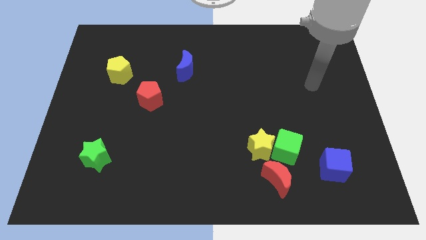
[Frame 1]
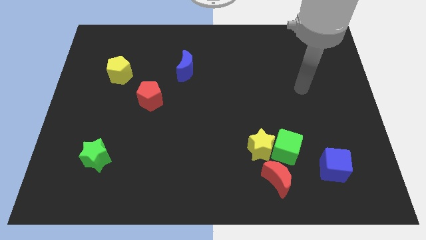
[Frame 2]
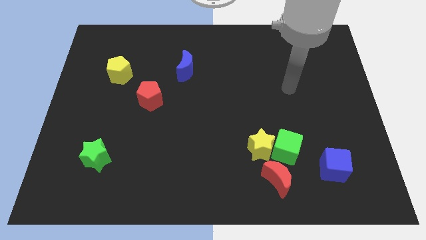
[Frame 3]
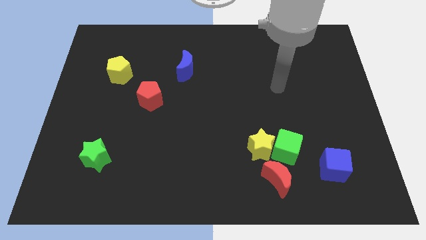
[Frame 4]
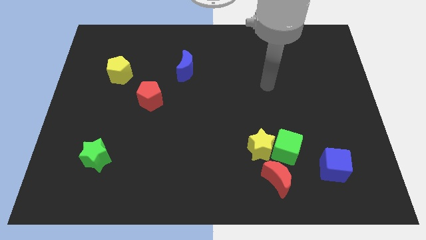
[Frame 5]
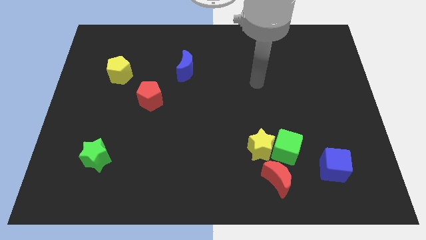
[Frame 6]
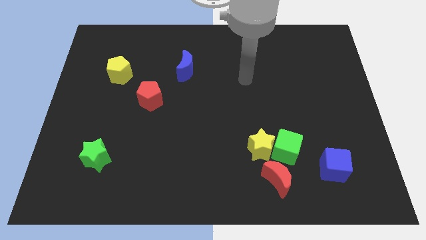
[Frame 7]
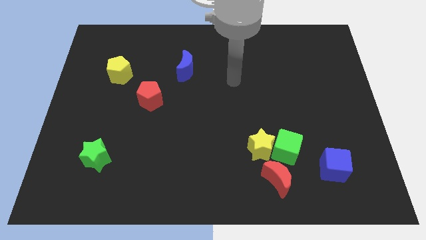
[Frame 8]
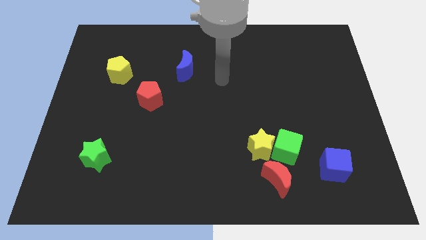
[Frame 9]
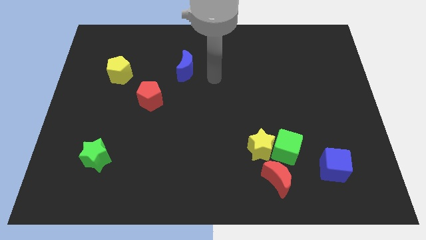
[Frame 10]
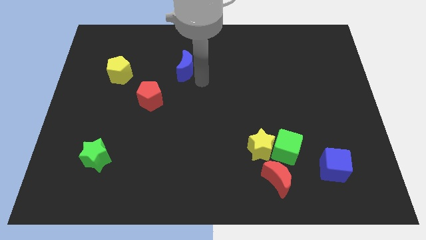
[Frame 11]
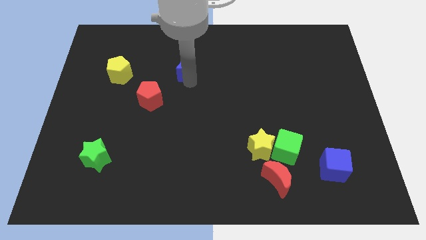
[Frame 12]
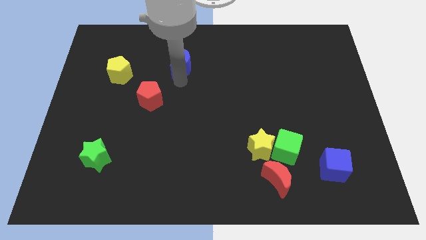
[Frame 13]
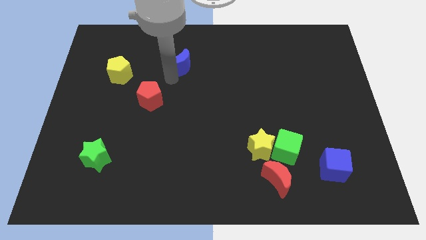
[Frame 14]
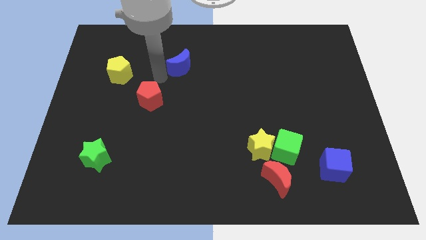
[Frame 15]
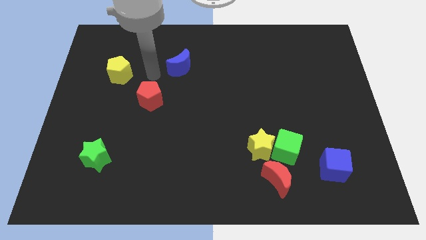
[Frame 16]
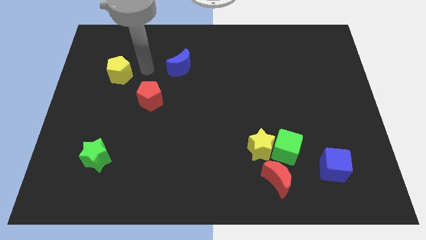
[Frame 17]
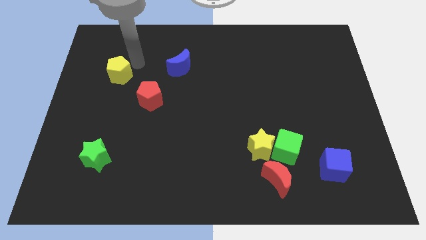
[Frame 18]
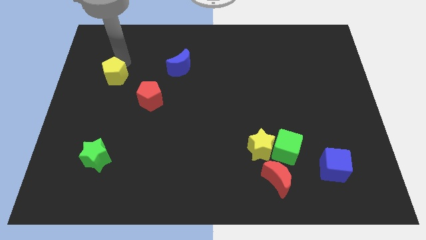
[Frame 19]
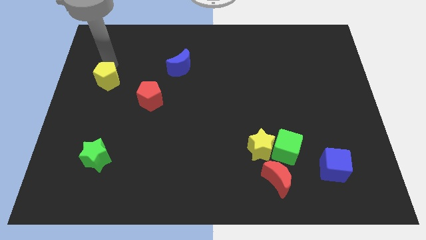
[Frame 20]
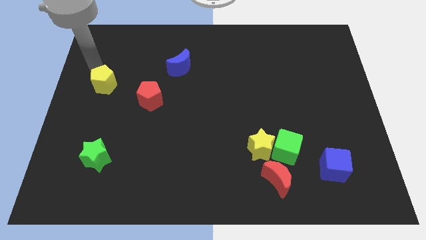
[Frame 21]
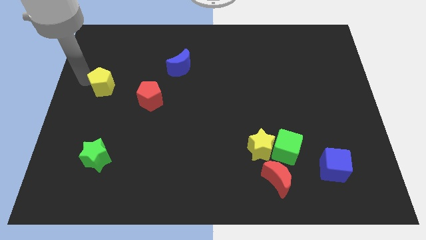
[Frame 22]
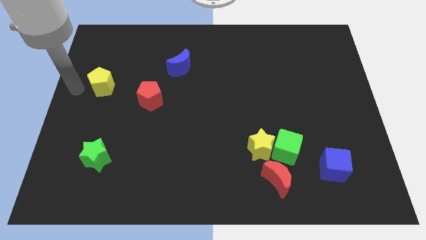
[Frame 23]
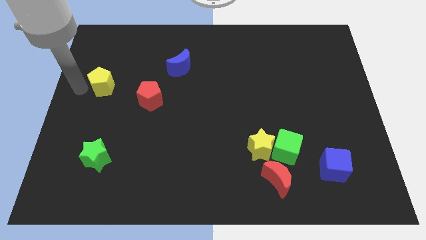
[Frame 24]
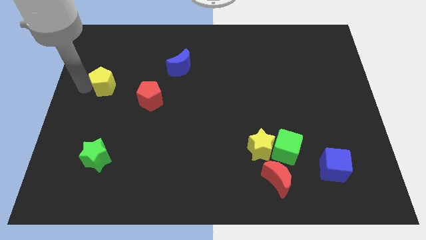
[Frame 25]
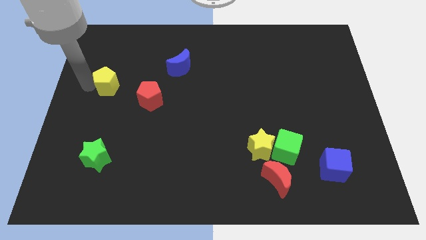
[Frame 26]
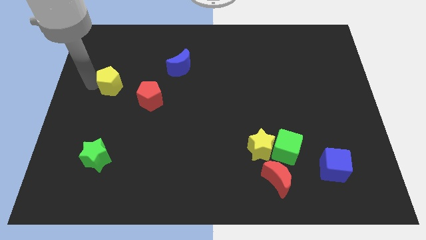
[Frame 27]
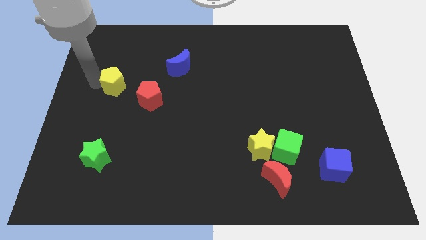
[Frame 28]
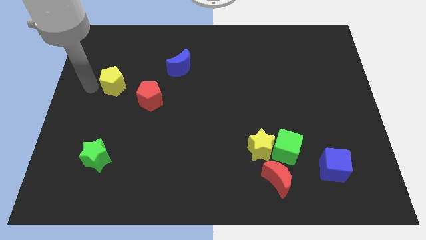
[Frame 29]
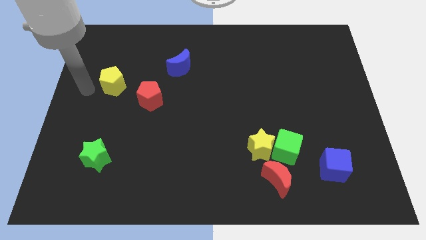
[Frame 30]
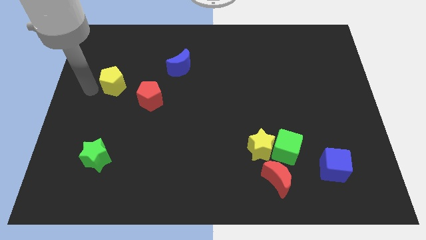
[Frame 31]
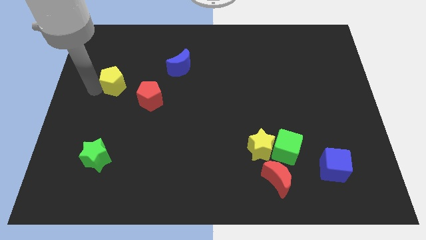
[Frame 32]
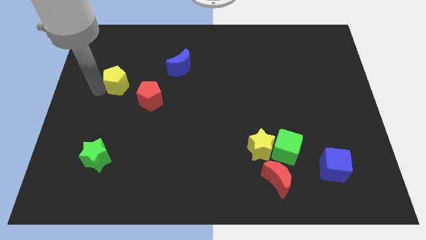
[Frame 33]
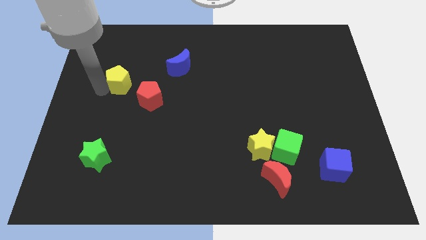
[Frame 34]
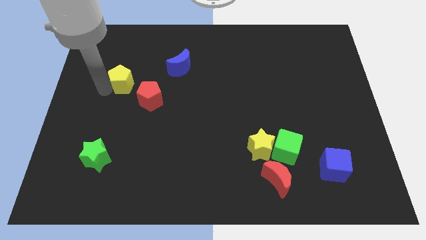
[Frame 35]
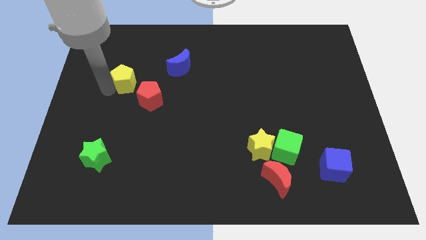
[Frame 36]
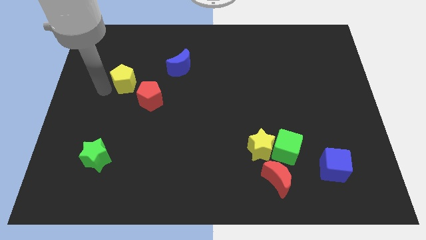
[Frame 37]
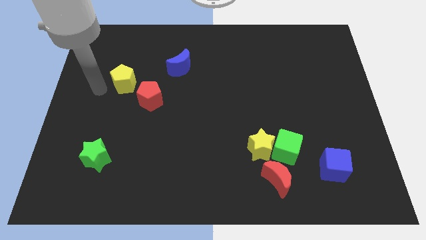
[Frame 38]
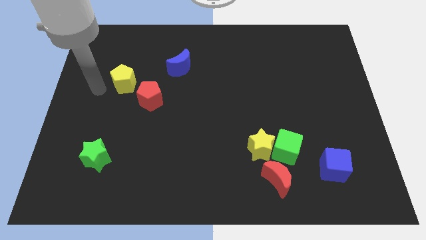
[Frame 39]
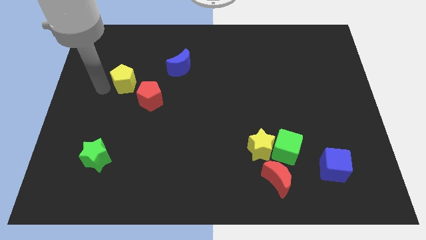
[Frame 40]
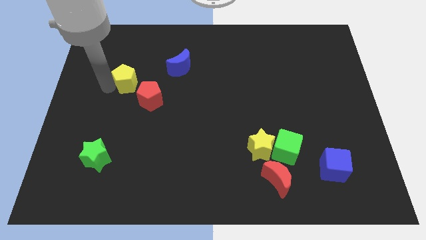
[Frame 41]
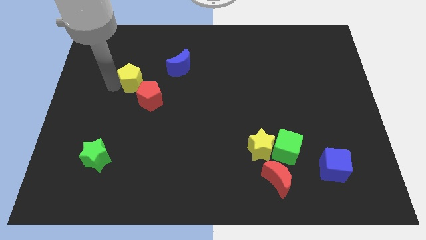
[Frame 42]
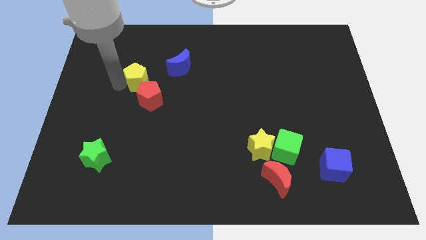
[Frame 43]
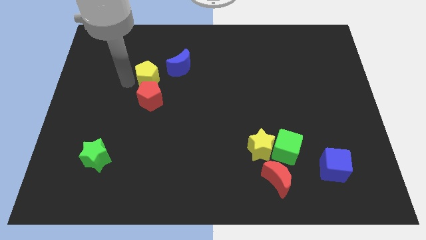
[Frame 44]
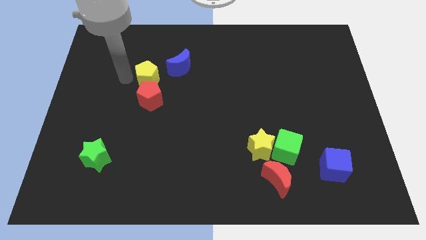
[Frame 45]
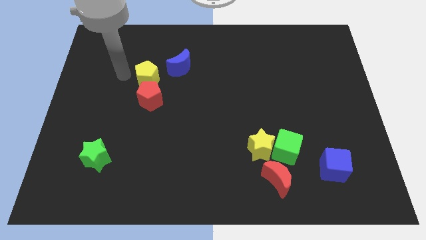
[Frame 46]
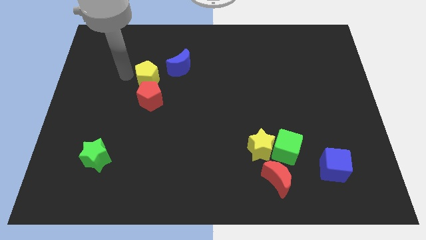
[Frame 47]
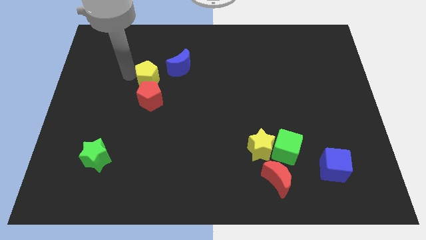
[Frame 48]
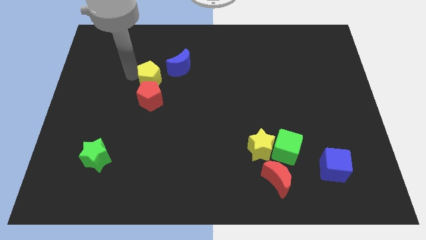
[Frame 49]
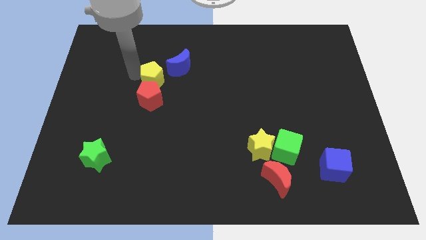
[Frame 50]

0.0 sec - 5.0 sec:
push the yellow pentagon diagonally up and to the right of the red pentagon

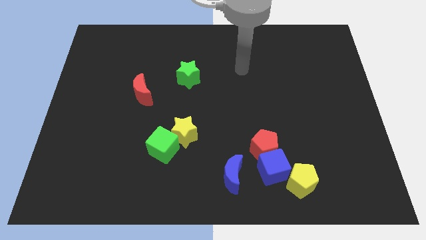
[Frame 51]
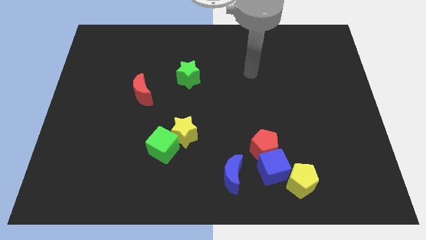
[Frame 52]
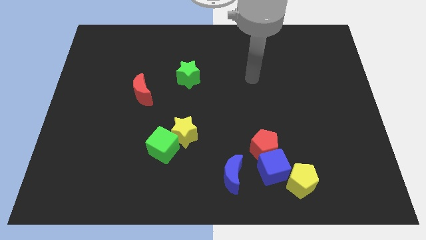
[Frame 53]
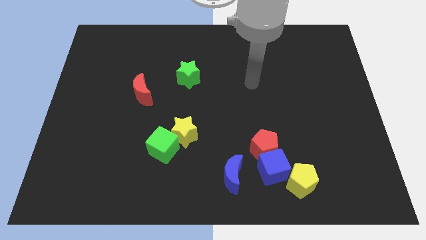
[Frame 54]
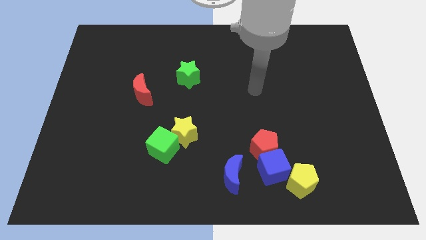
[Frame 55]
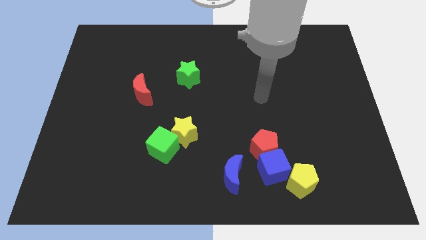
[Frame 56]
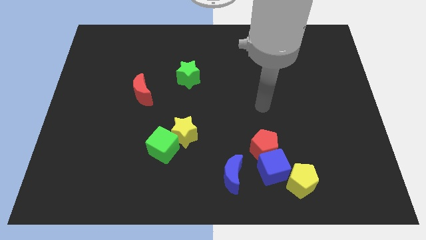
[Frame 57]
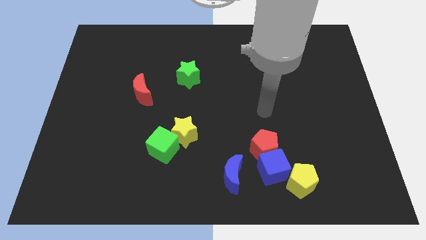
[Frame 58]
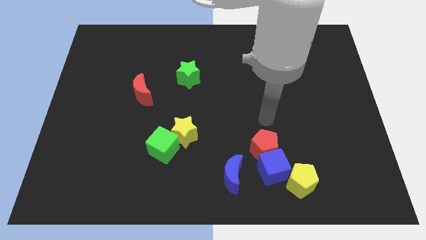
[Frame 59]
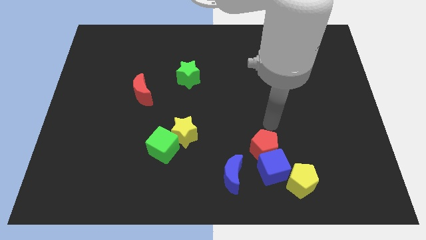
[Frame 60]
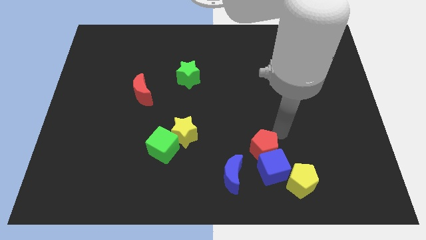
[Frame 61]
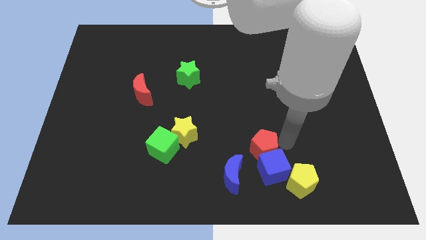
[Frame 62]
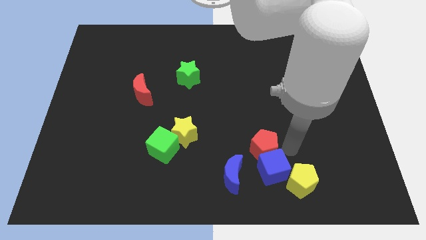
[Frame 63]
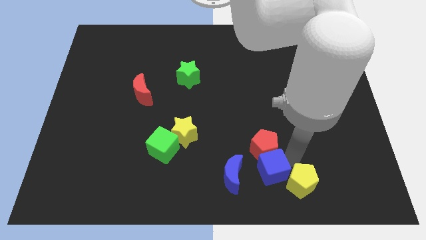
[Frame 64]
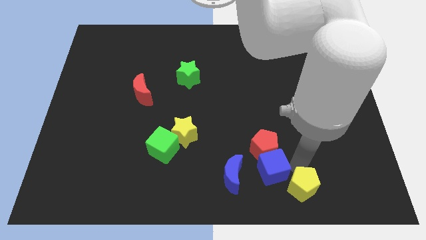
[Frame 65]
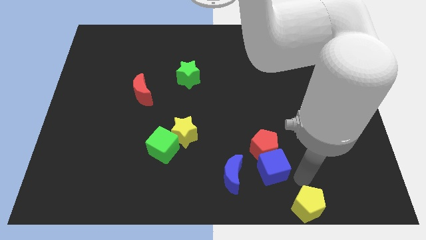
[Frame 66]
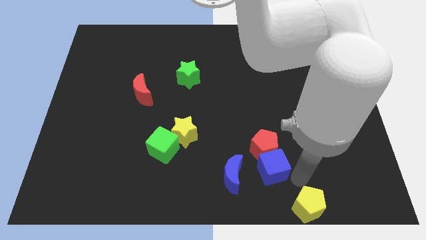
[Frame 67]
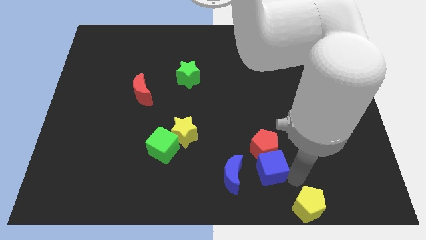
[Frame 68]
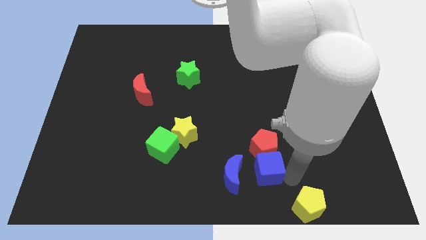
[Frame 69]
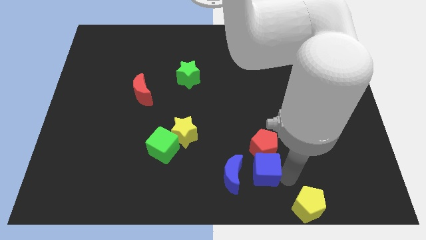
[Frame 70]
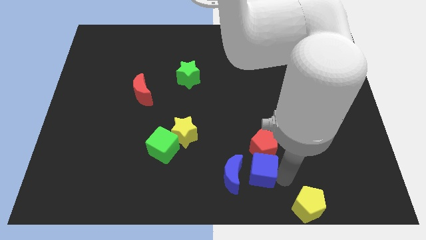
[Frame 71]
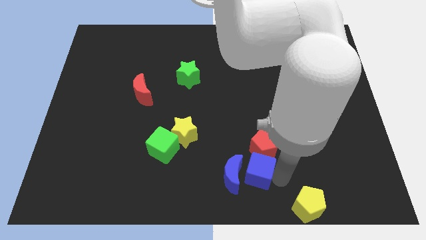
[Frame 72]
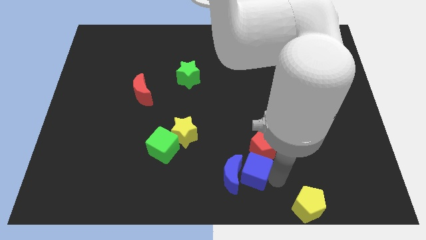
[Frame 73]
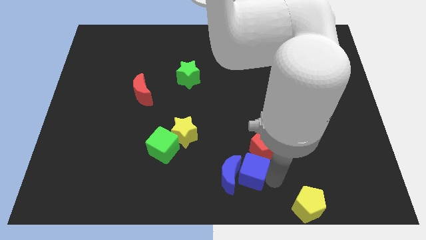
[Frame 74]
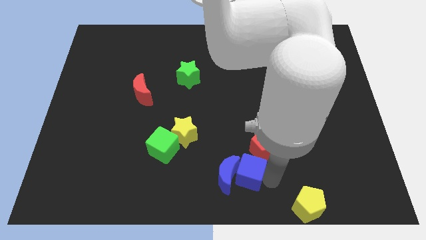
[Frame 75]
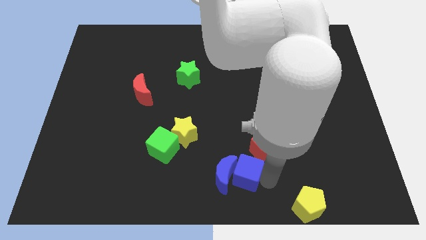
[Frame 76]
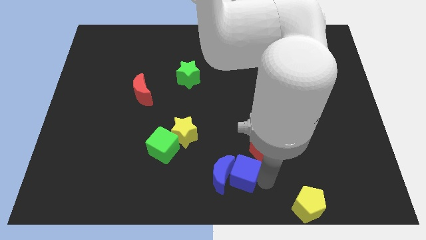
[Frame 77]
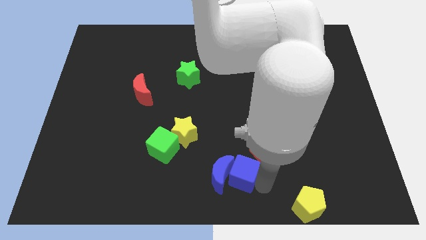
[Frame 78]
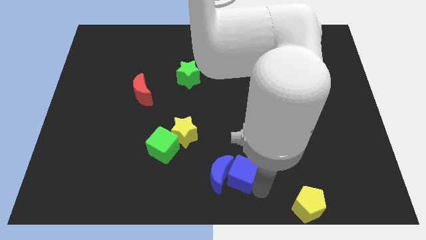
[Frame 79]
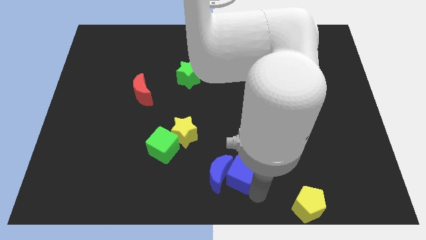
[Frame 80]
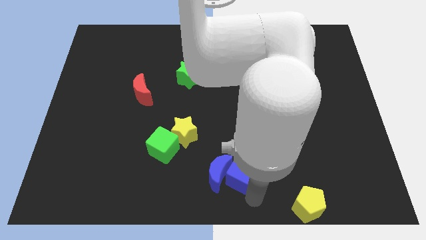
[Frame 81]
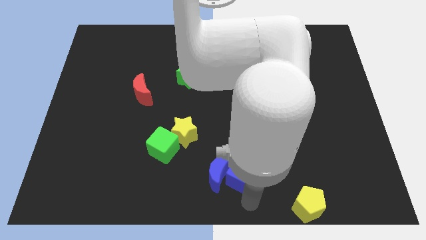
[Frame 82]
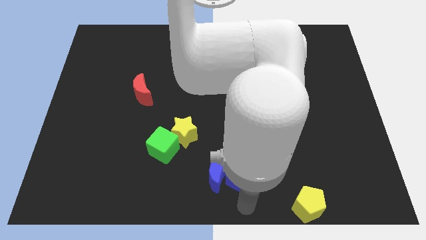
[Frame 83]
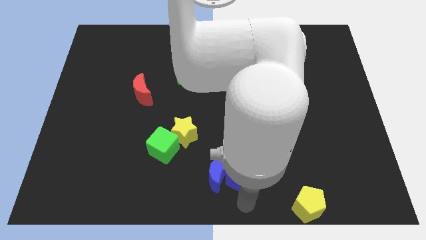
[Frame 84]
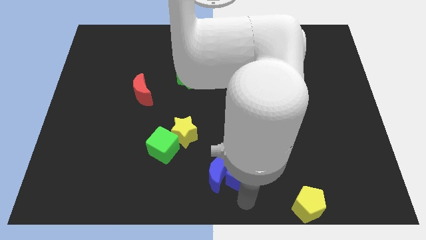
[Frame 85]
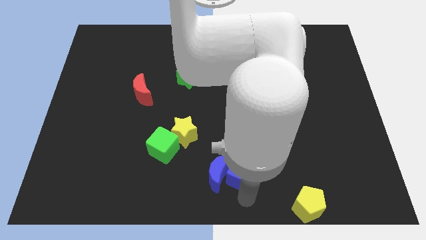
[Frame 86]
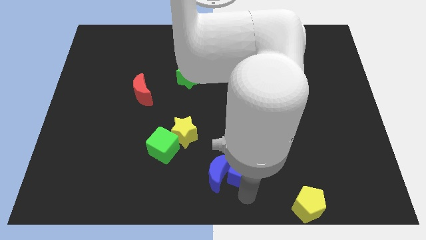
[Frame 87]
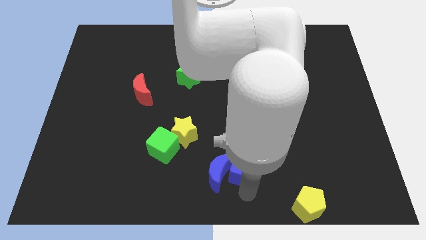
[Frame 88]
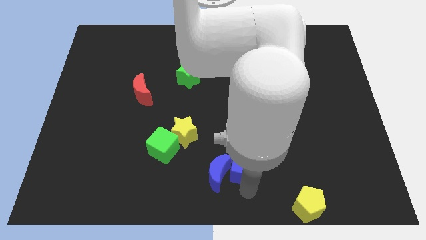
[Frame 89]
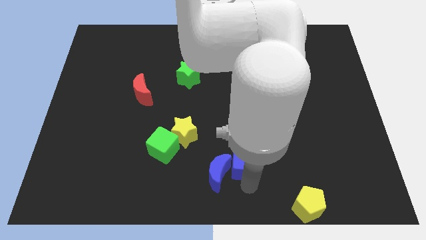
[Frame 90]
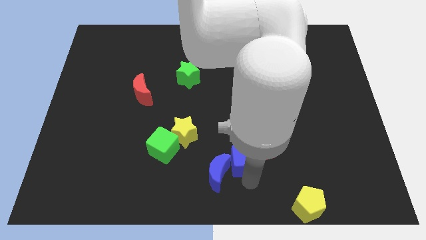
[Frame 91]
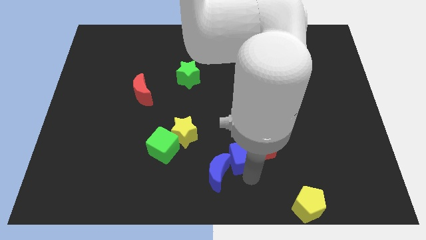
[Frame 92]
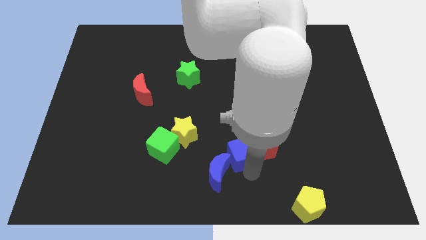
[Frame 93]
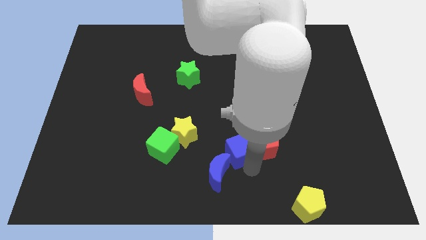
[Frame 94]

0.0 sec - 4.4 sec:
slide the blue cube above the blue moon
